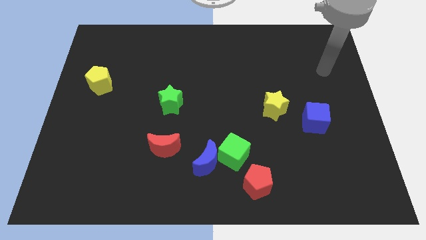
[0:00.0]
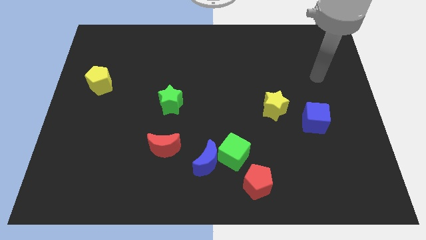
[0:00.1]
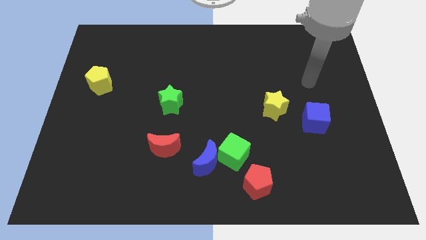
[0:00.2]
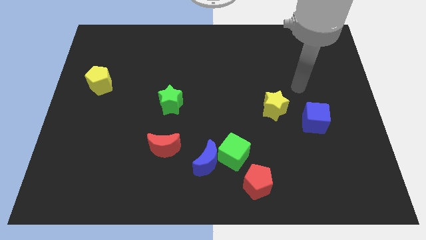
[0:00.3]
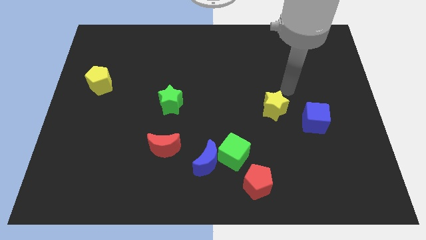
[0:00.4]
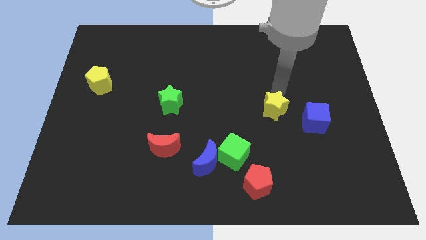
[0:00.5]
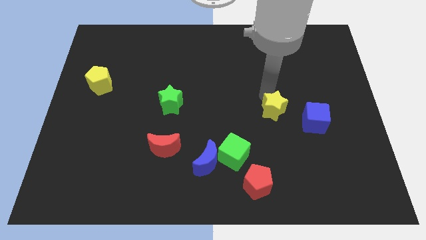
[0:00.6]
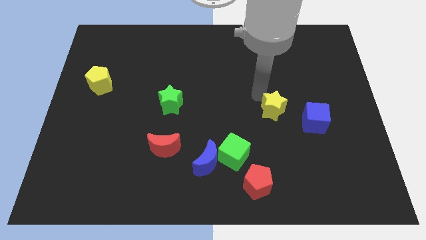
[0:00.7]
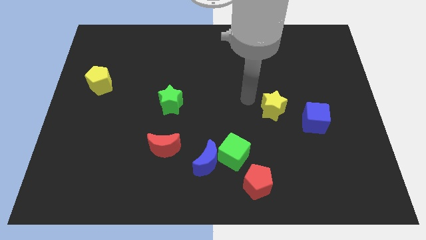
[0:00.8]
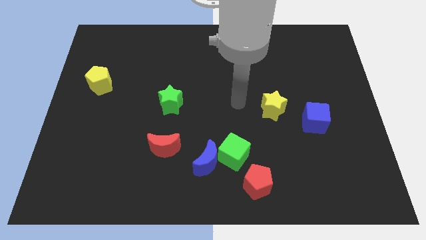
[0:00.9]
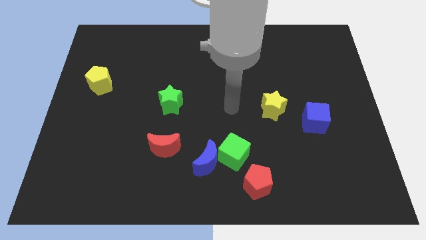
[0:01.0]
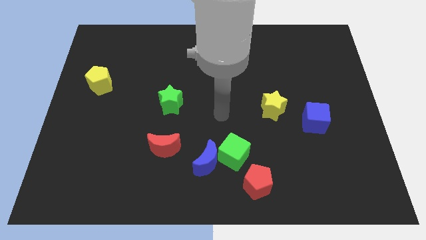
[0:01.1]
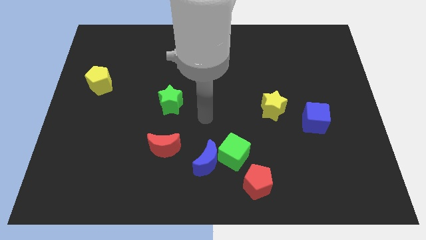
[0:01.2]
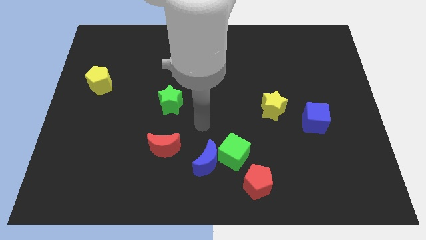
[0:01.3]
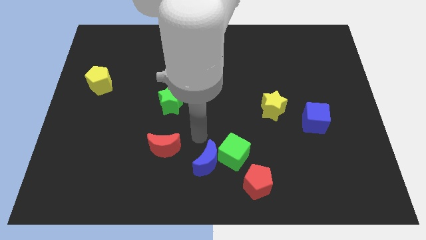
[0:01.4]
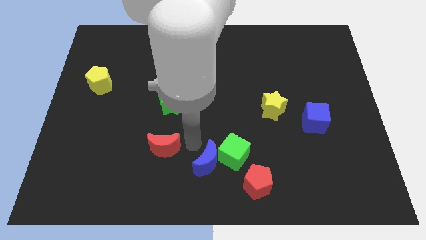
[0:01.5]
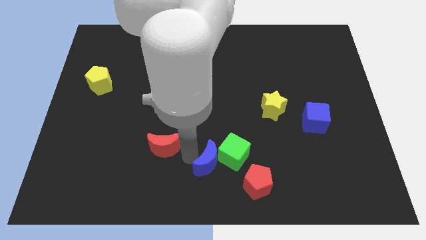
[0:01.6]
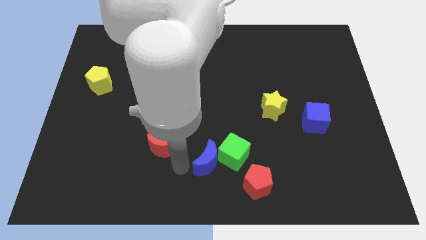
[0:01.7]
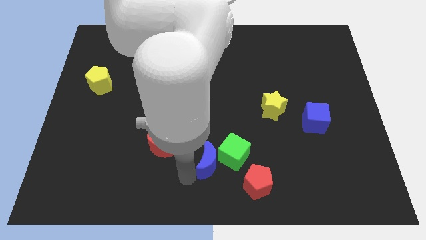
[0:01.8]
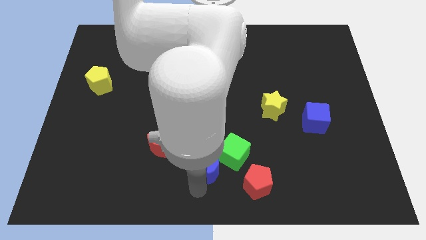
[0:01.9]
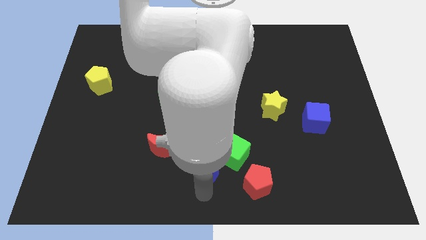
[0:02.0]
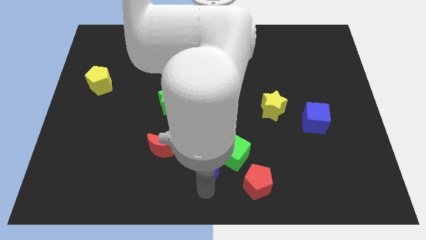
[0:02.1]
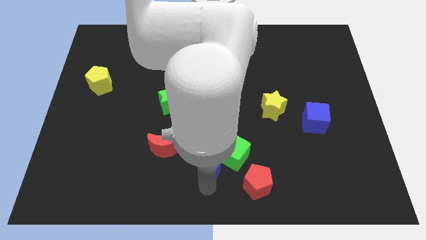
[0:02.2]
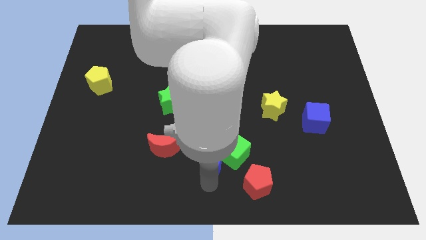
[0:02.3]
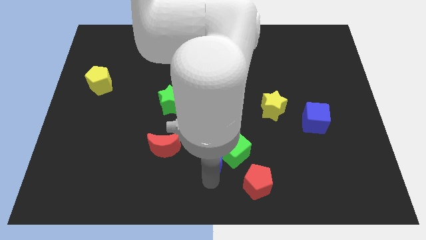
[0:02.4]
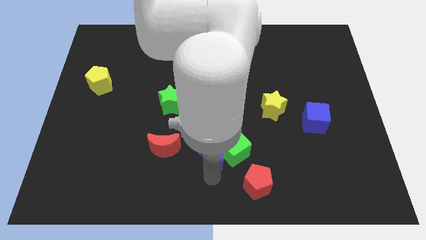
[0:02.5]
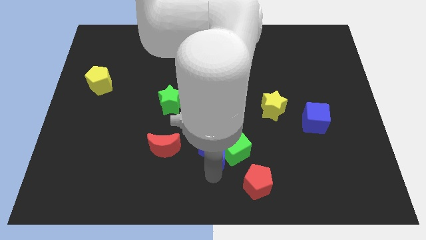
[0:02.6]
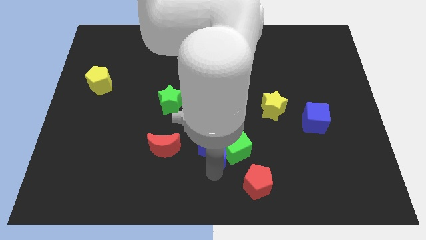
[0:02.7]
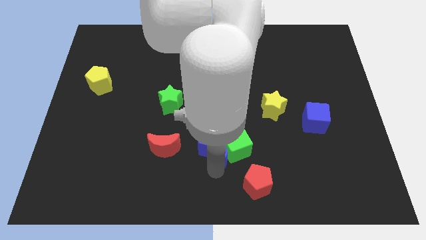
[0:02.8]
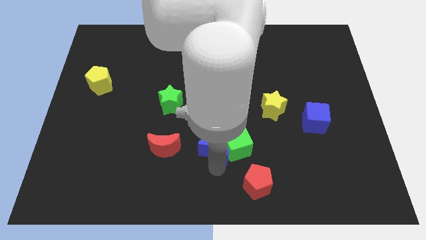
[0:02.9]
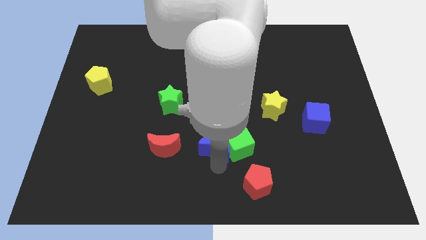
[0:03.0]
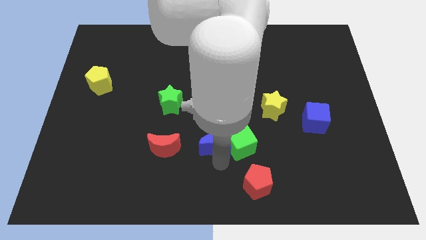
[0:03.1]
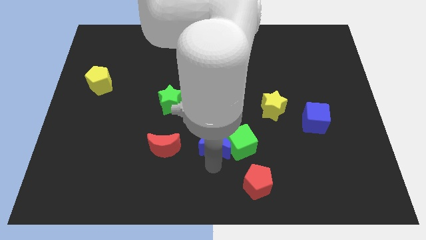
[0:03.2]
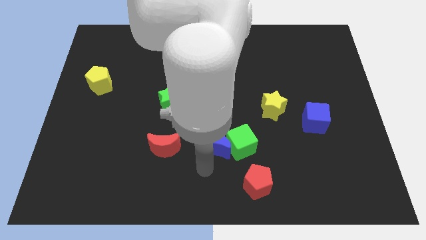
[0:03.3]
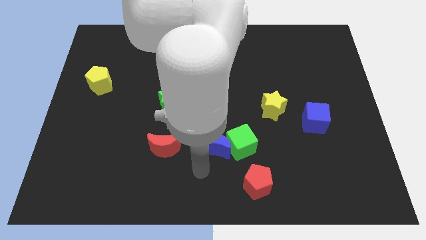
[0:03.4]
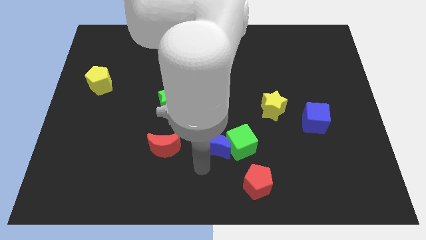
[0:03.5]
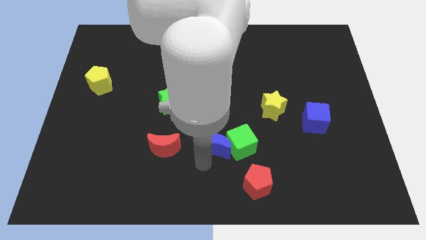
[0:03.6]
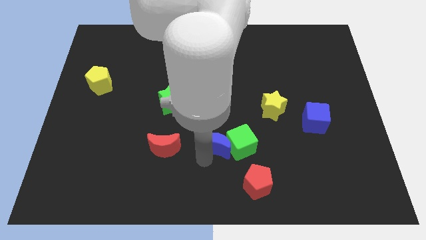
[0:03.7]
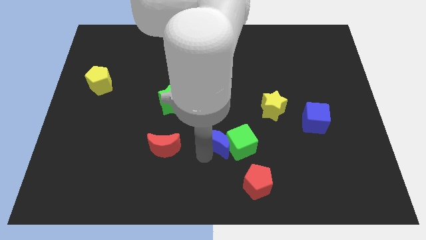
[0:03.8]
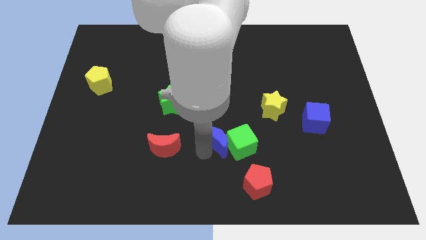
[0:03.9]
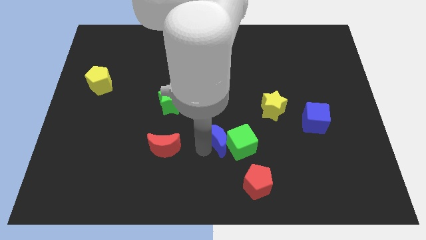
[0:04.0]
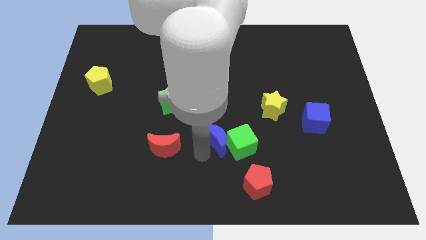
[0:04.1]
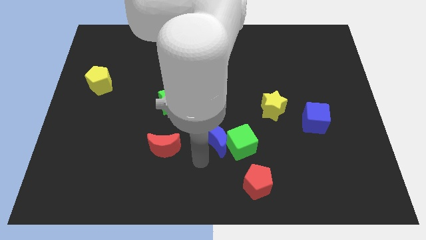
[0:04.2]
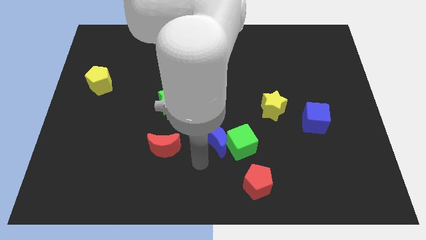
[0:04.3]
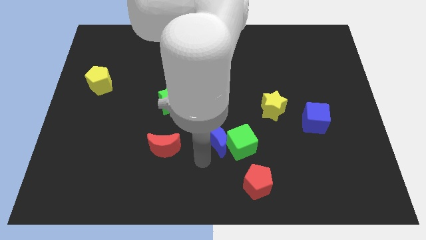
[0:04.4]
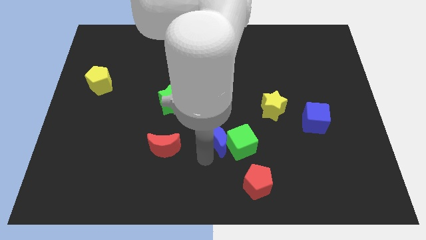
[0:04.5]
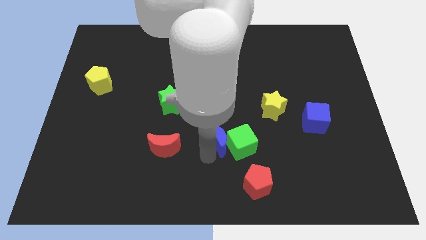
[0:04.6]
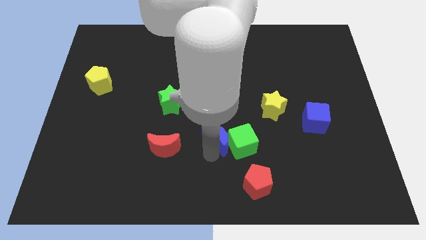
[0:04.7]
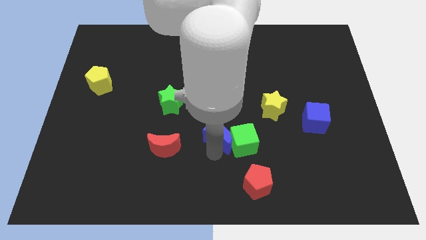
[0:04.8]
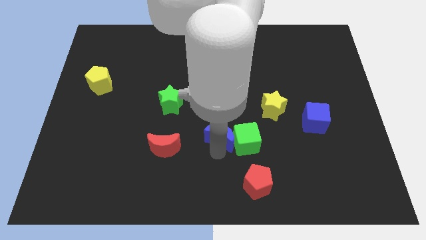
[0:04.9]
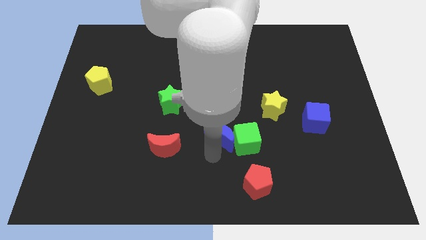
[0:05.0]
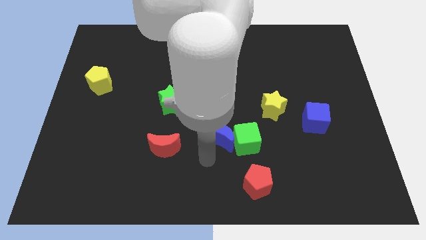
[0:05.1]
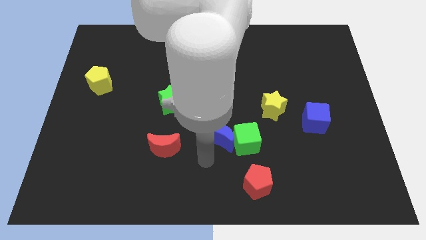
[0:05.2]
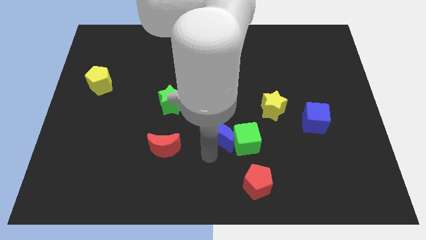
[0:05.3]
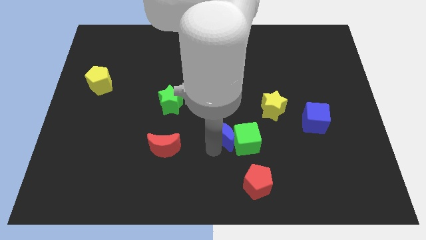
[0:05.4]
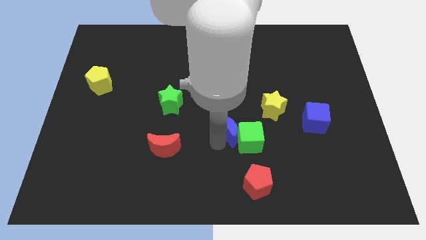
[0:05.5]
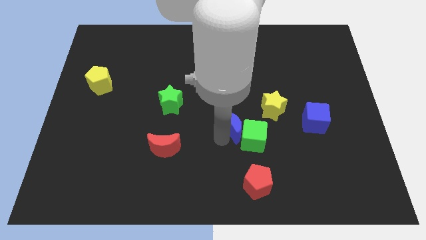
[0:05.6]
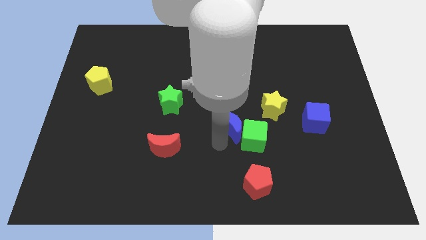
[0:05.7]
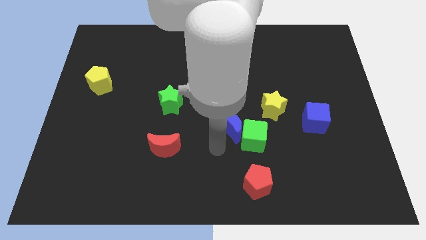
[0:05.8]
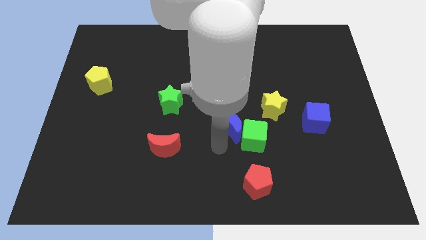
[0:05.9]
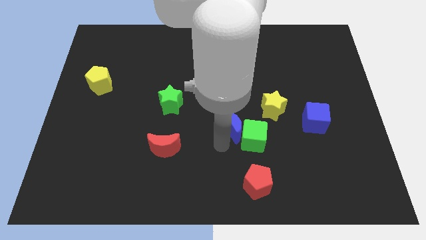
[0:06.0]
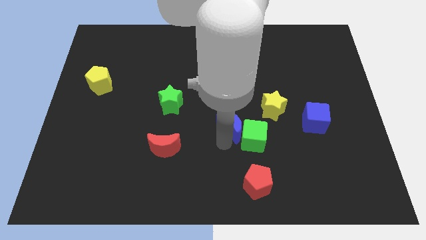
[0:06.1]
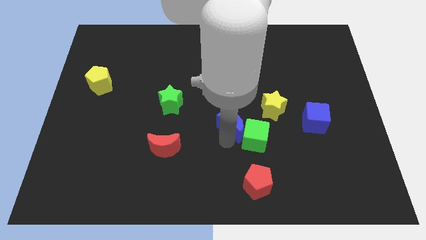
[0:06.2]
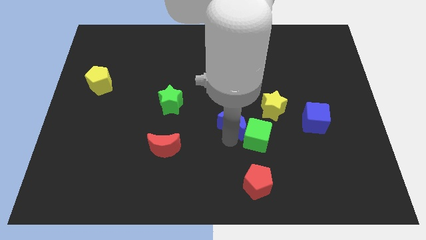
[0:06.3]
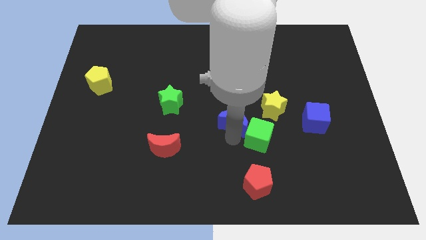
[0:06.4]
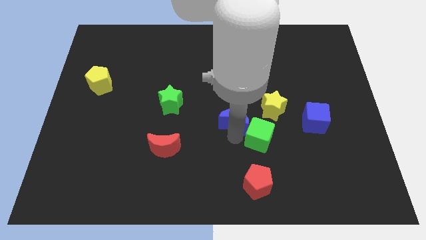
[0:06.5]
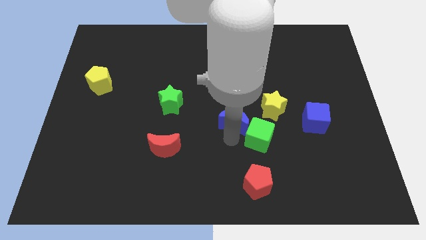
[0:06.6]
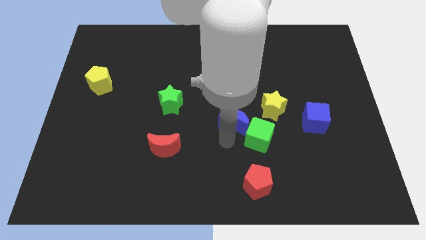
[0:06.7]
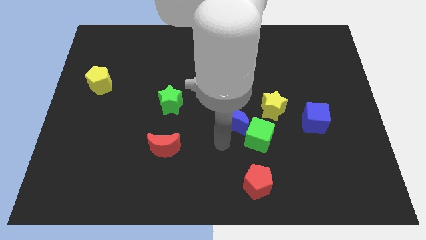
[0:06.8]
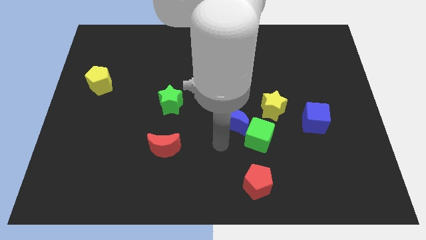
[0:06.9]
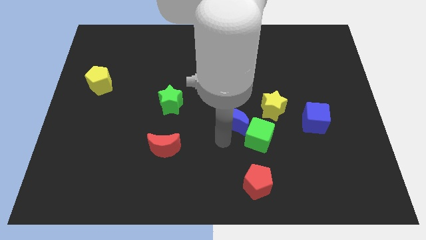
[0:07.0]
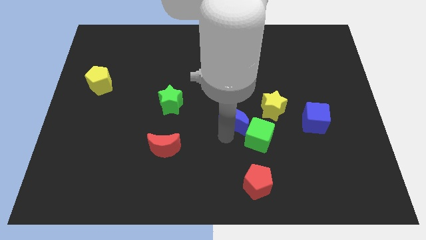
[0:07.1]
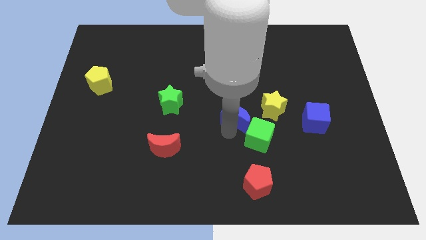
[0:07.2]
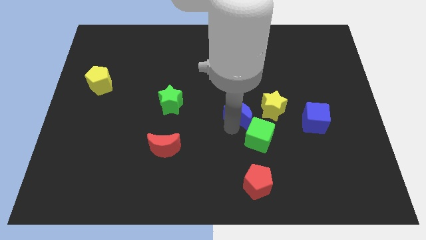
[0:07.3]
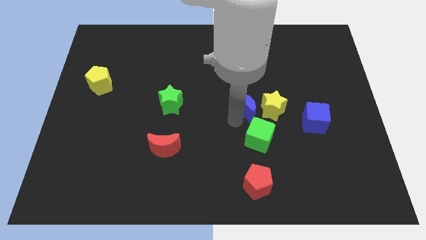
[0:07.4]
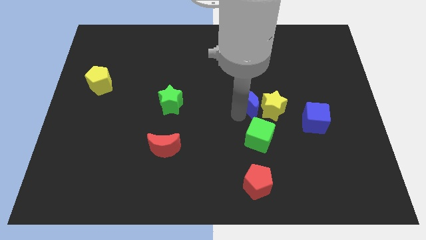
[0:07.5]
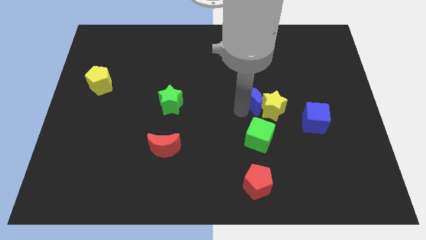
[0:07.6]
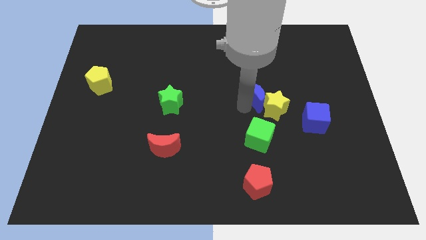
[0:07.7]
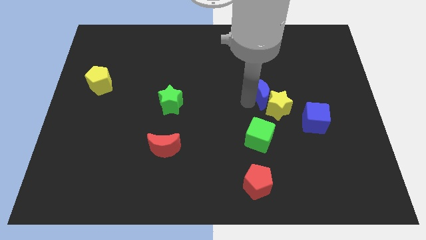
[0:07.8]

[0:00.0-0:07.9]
push the blue moon diagonally upwards and right

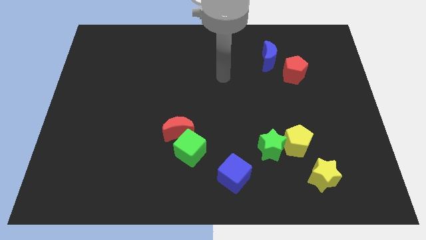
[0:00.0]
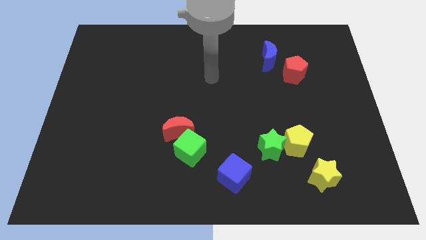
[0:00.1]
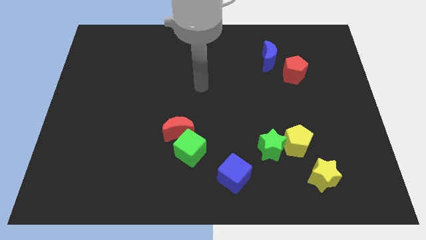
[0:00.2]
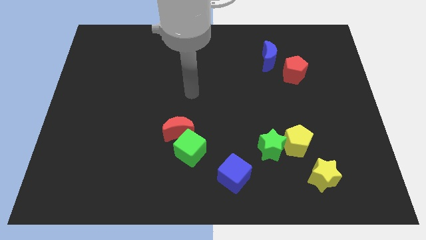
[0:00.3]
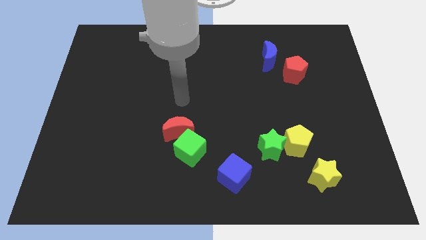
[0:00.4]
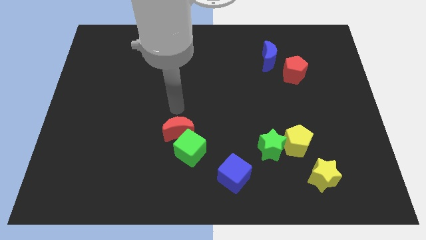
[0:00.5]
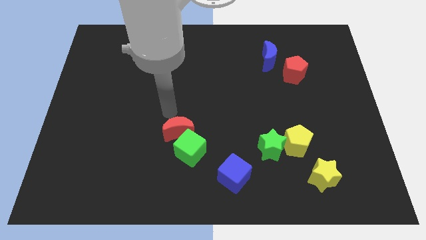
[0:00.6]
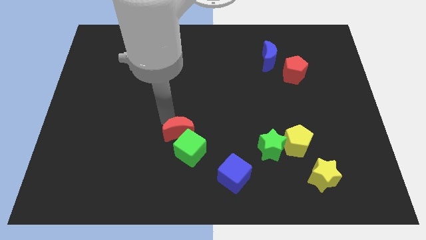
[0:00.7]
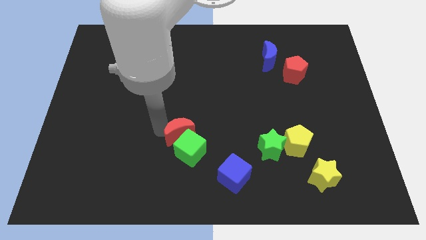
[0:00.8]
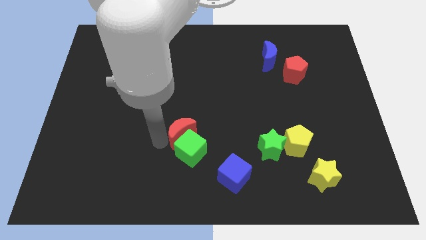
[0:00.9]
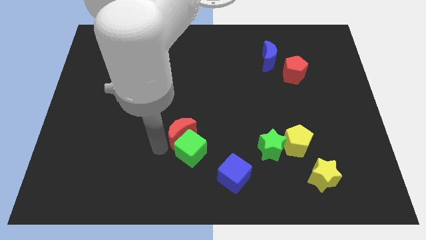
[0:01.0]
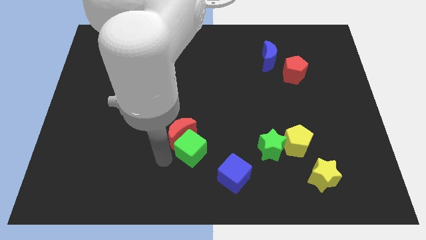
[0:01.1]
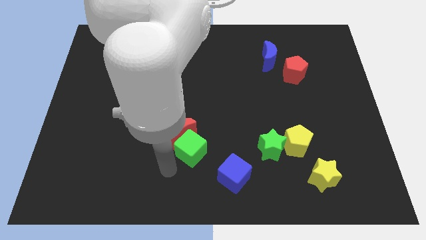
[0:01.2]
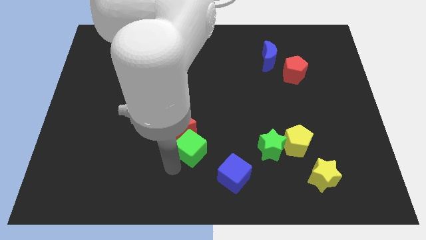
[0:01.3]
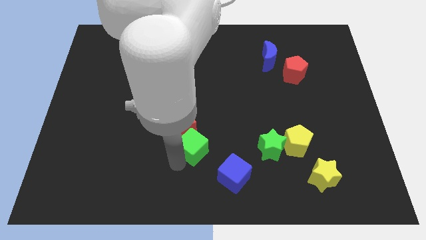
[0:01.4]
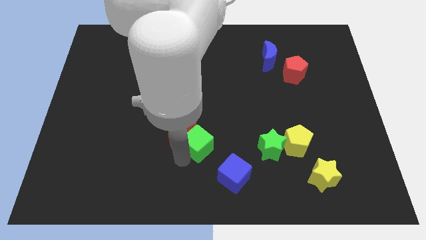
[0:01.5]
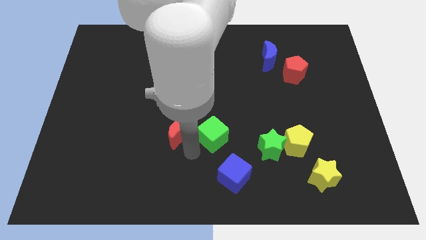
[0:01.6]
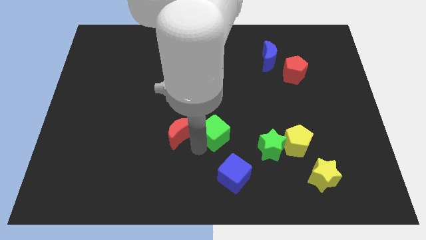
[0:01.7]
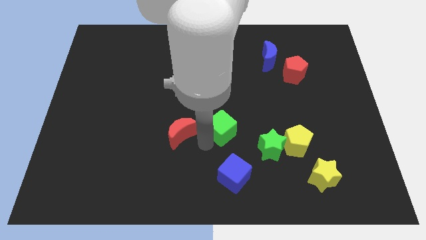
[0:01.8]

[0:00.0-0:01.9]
slide the green cube up and to the right diagonally a bit
